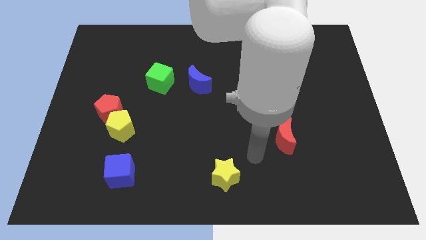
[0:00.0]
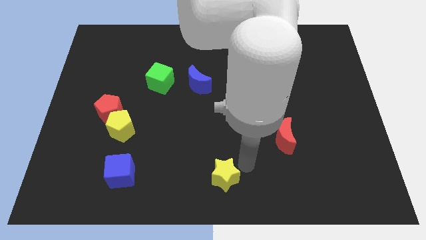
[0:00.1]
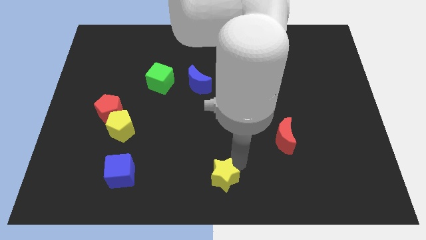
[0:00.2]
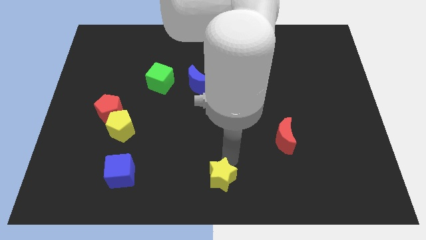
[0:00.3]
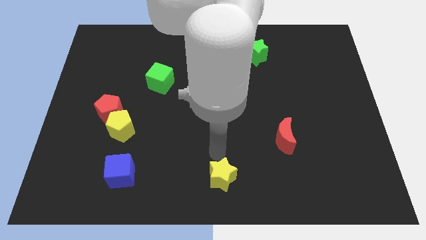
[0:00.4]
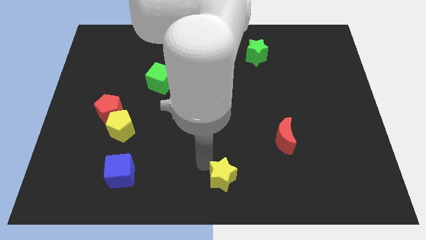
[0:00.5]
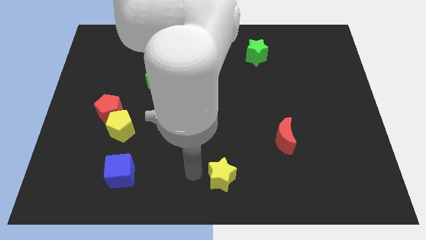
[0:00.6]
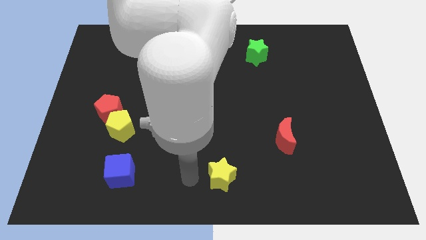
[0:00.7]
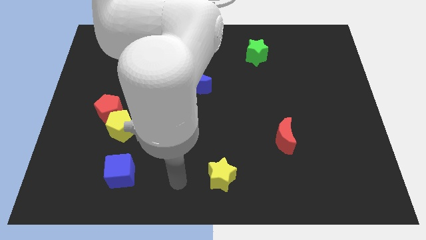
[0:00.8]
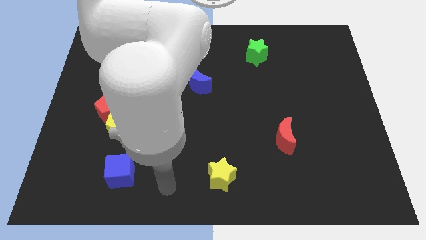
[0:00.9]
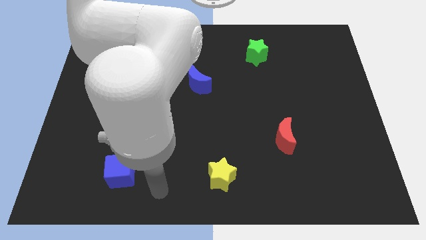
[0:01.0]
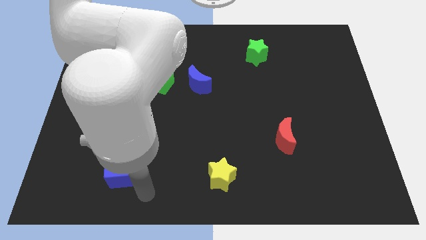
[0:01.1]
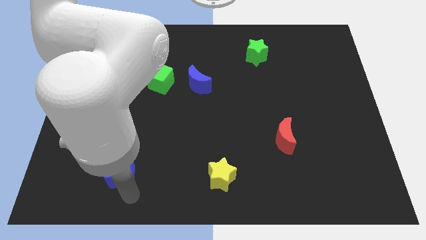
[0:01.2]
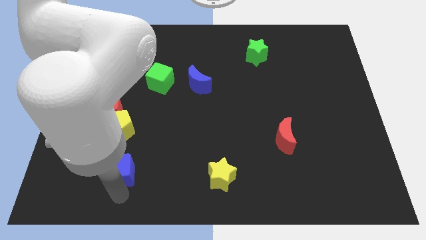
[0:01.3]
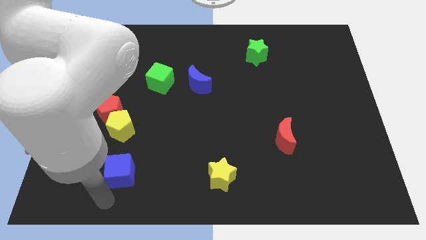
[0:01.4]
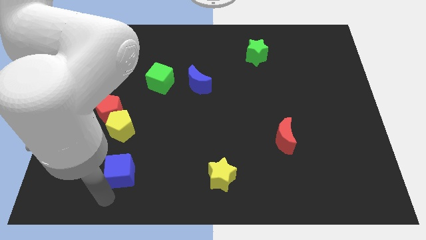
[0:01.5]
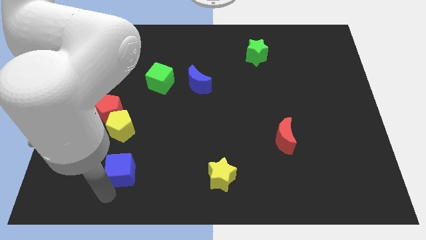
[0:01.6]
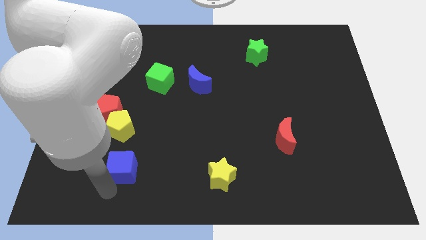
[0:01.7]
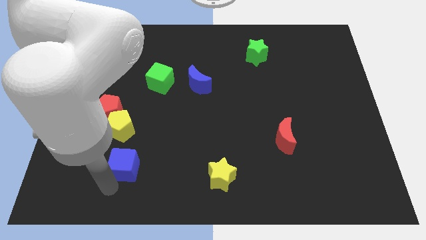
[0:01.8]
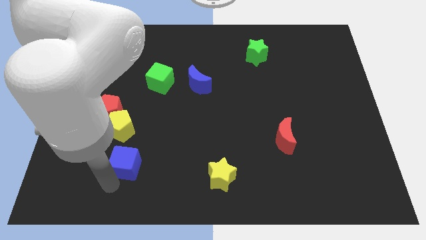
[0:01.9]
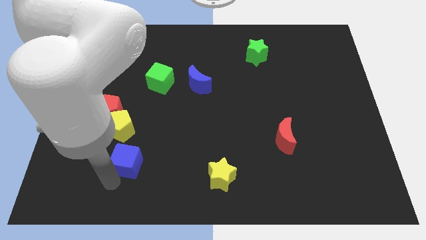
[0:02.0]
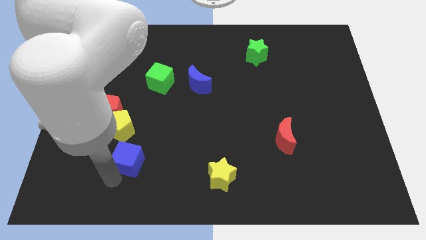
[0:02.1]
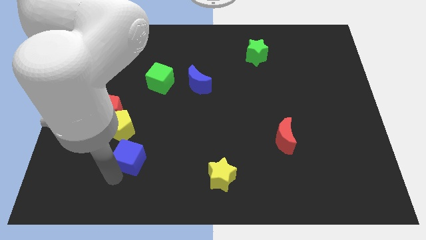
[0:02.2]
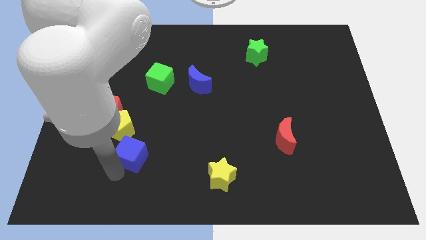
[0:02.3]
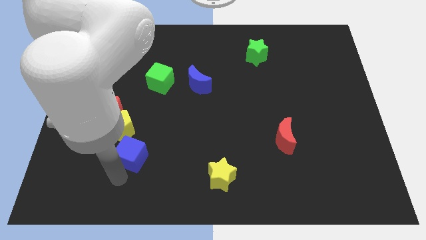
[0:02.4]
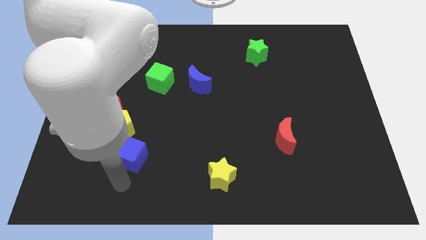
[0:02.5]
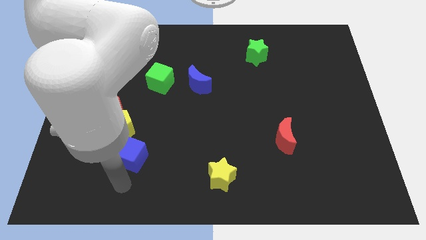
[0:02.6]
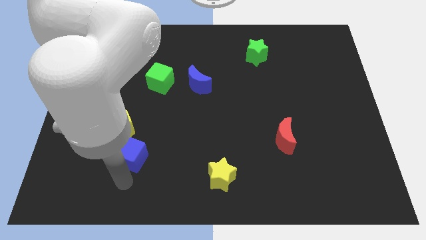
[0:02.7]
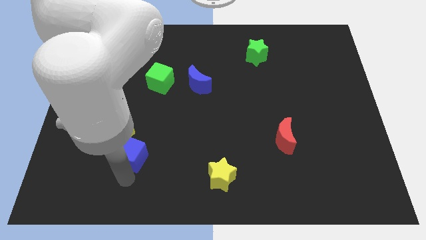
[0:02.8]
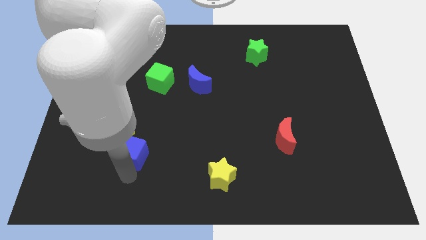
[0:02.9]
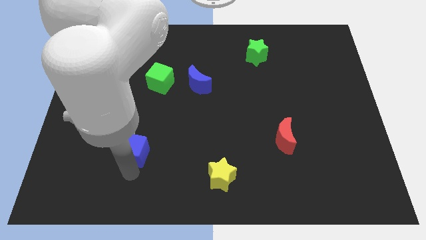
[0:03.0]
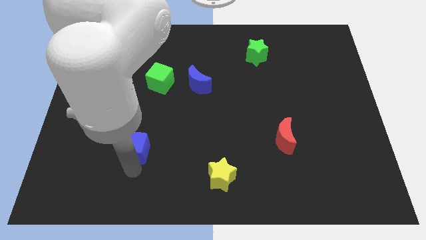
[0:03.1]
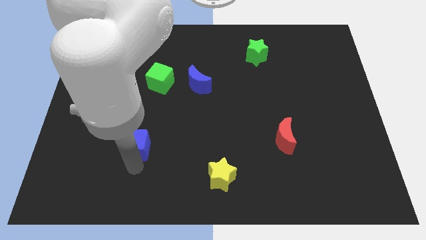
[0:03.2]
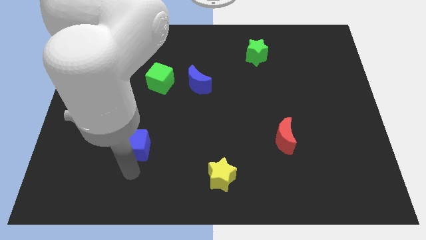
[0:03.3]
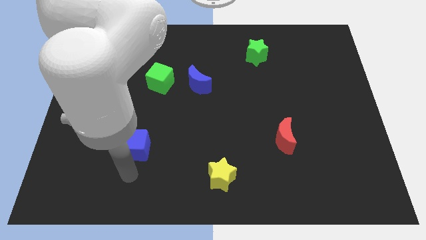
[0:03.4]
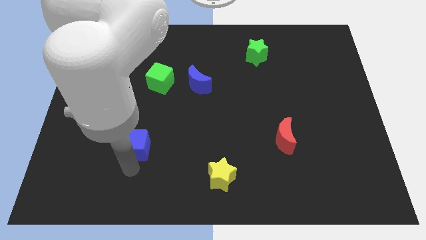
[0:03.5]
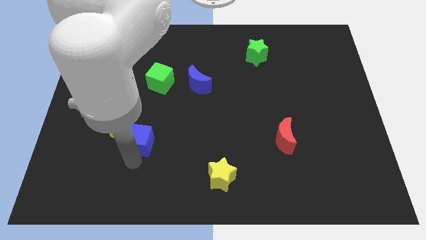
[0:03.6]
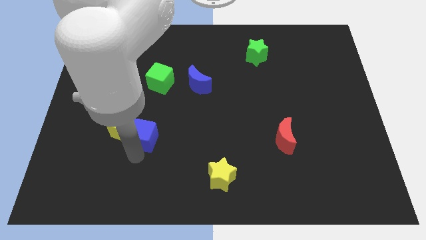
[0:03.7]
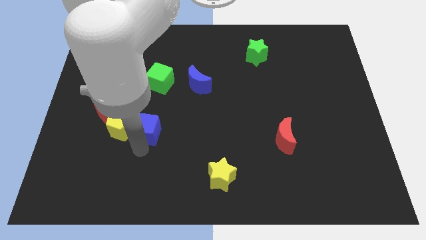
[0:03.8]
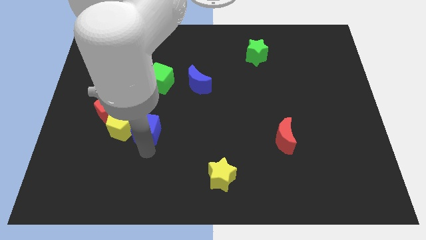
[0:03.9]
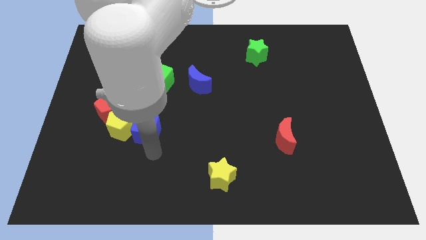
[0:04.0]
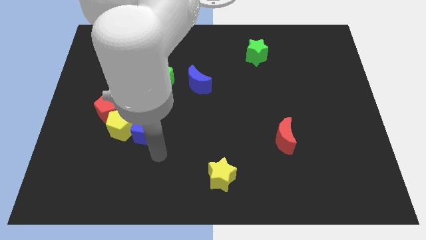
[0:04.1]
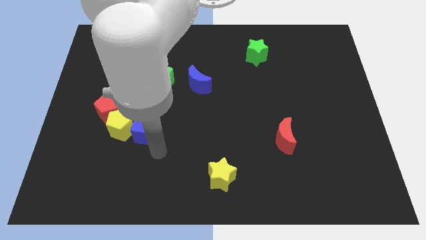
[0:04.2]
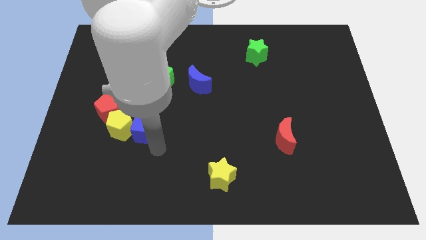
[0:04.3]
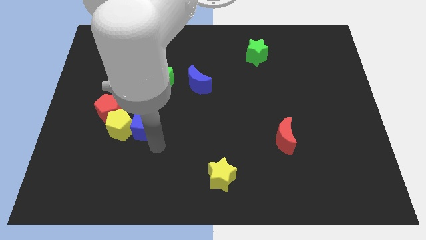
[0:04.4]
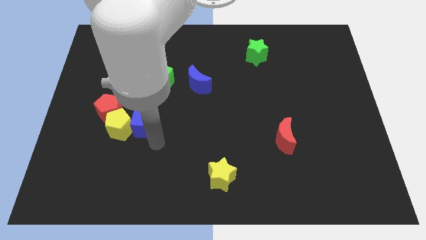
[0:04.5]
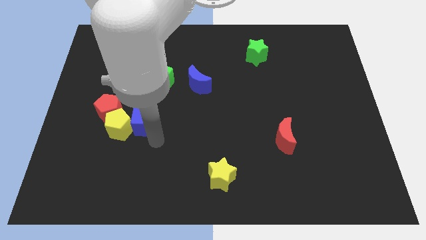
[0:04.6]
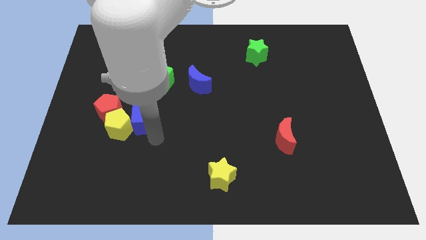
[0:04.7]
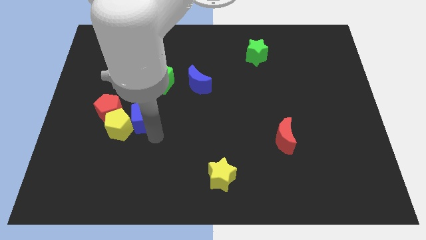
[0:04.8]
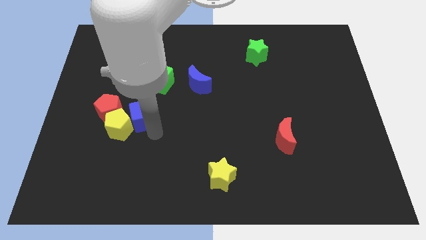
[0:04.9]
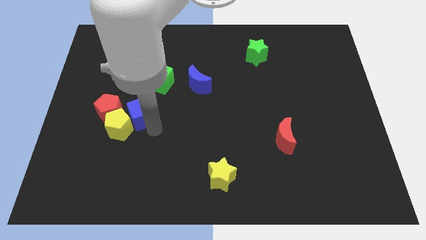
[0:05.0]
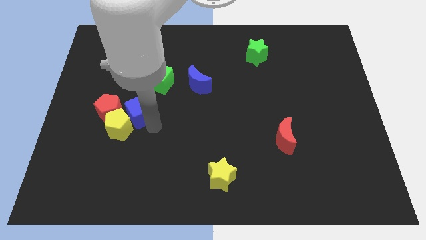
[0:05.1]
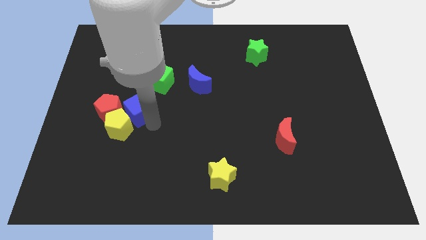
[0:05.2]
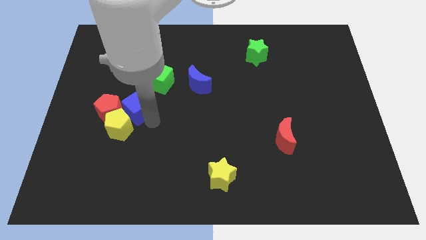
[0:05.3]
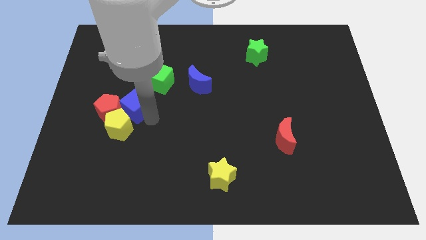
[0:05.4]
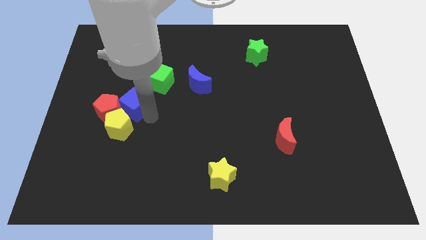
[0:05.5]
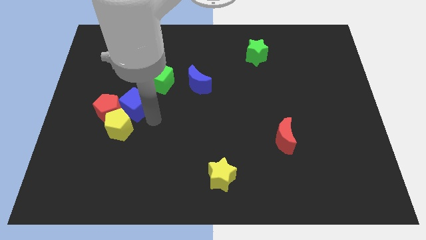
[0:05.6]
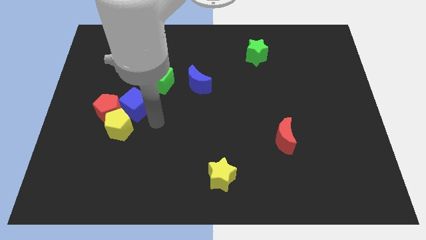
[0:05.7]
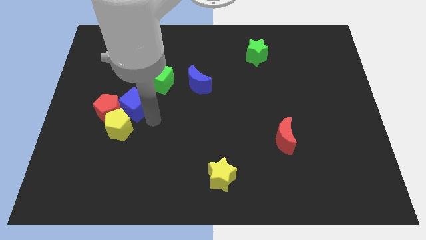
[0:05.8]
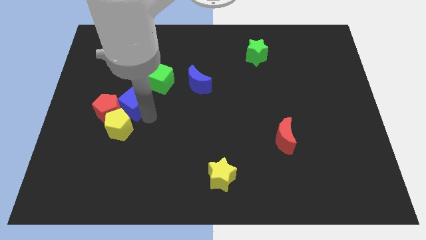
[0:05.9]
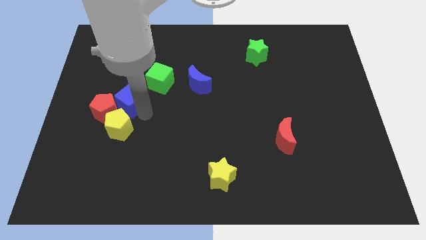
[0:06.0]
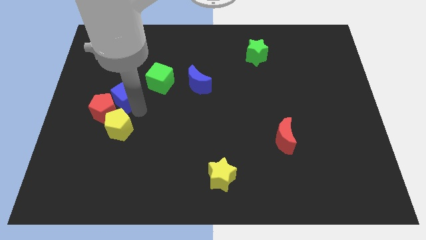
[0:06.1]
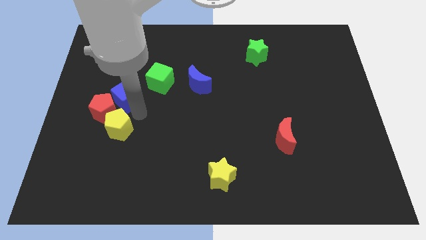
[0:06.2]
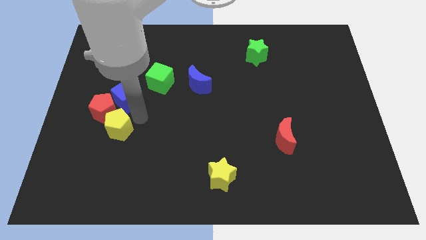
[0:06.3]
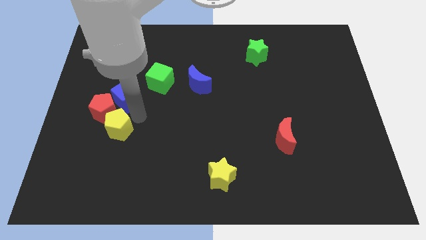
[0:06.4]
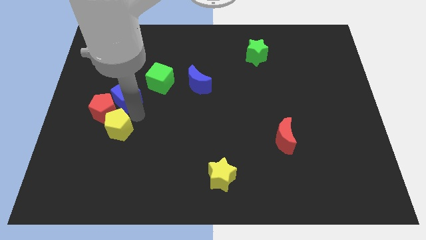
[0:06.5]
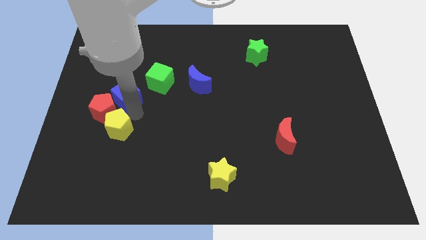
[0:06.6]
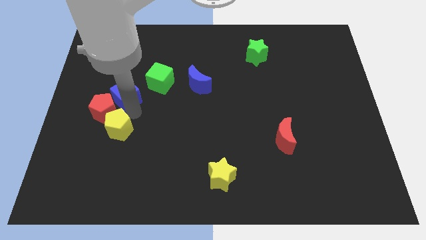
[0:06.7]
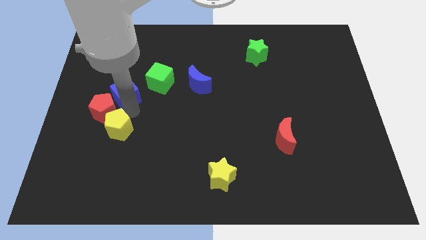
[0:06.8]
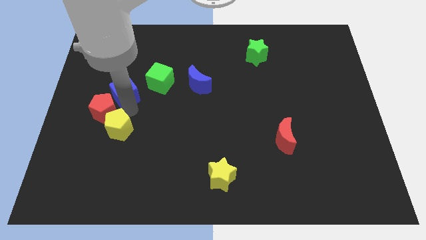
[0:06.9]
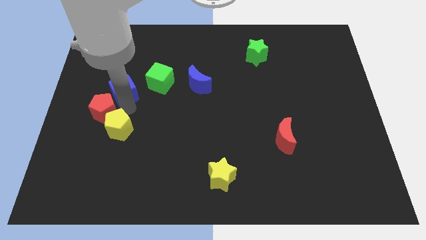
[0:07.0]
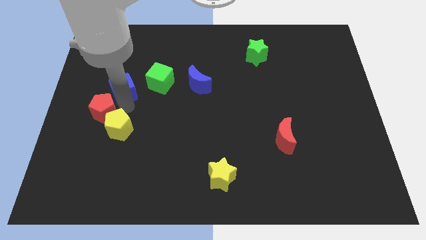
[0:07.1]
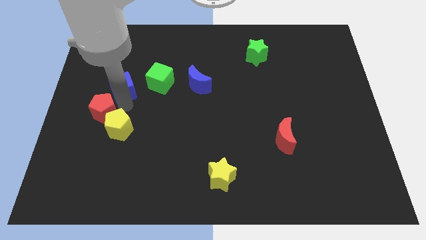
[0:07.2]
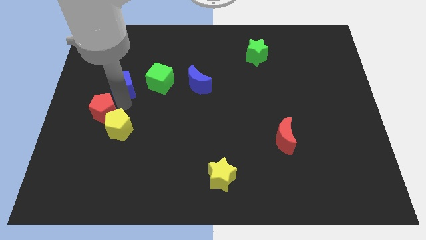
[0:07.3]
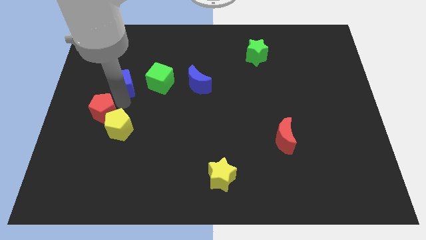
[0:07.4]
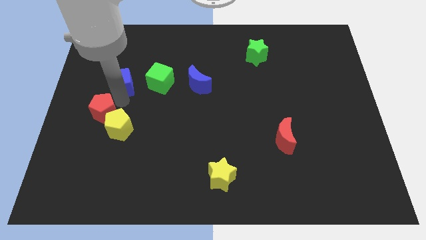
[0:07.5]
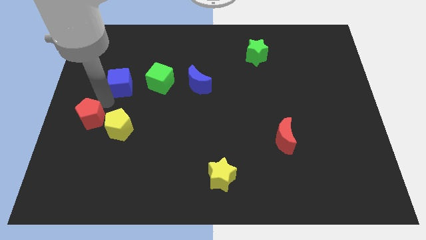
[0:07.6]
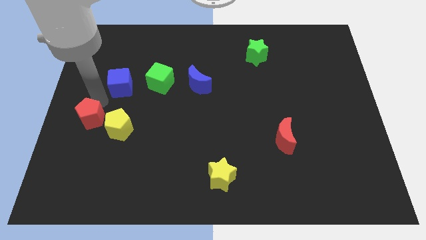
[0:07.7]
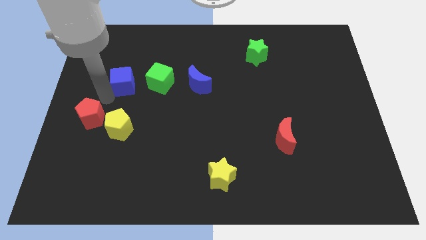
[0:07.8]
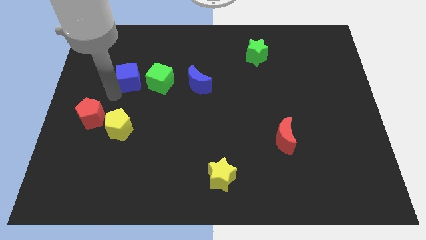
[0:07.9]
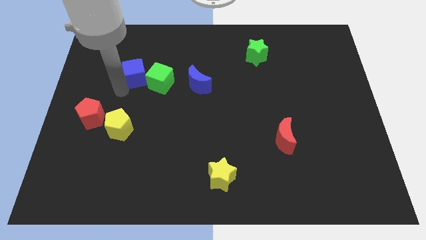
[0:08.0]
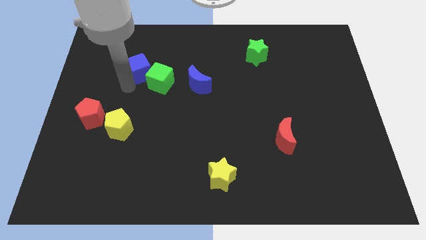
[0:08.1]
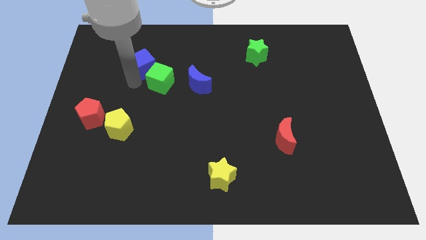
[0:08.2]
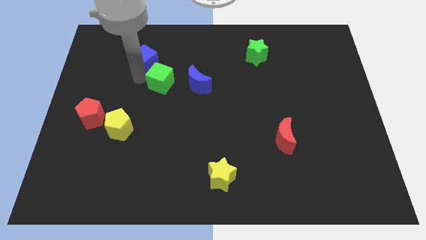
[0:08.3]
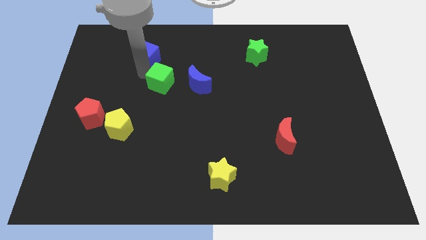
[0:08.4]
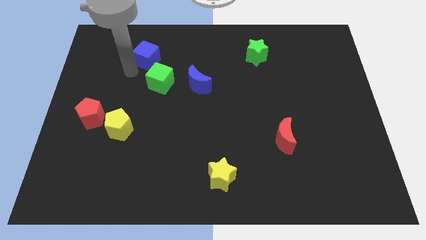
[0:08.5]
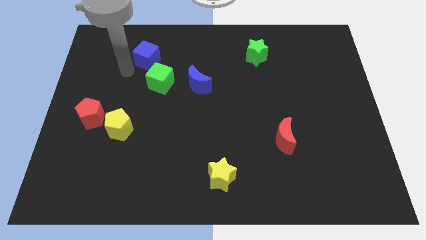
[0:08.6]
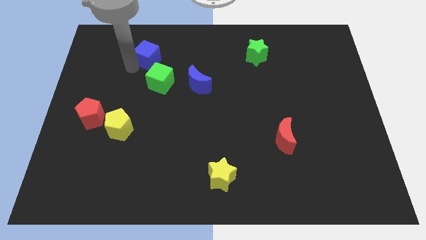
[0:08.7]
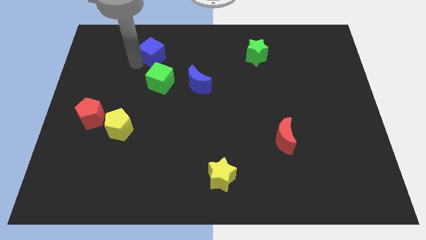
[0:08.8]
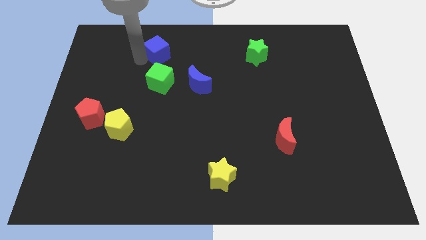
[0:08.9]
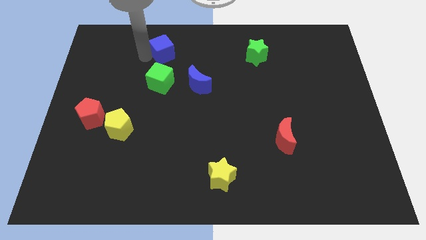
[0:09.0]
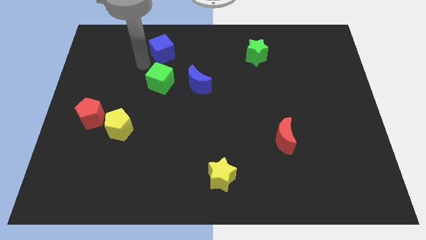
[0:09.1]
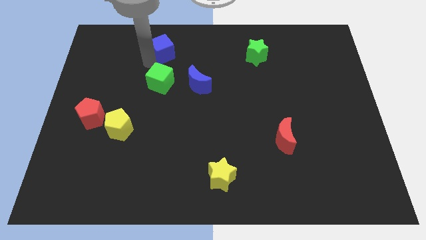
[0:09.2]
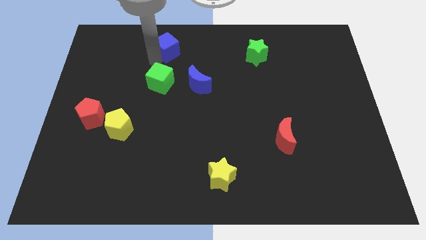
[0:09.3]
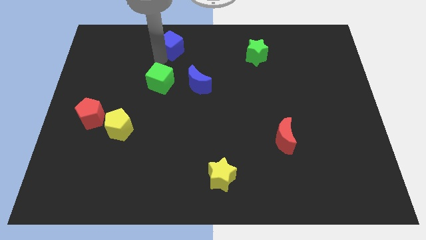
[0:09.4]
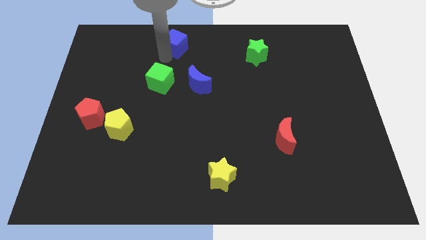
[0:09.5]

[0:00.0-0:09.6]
push the blue cube to the top
